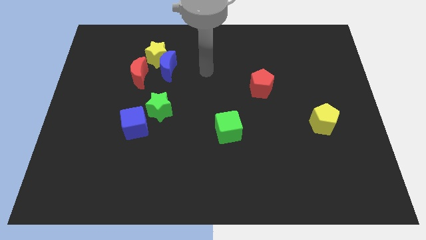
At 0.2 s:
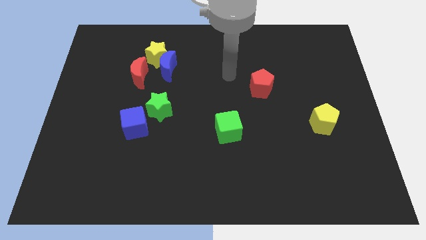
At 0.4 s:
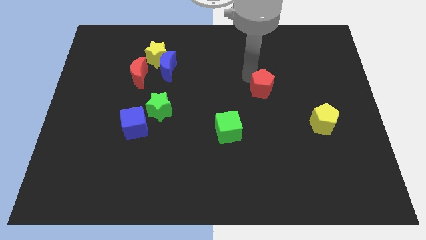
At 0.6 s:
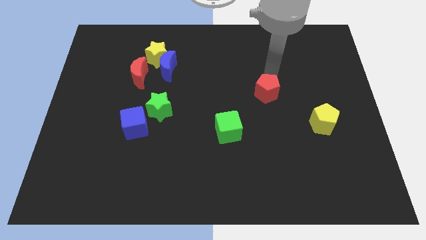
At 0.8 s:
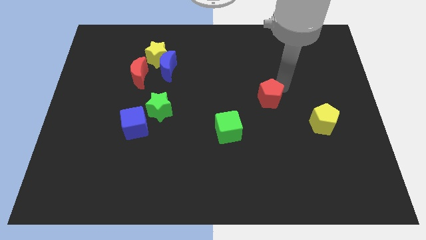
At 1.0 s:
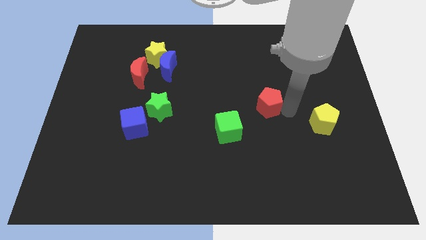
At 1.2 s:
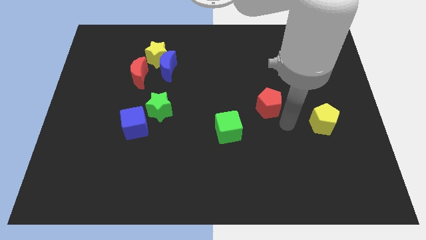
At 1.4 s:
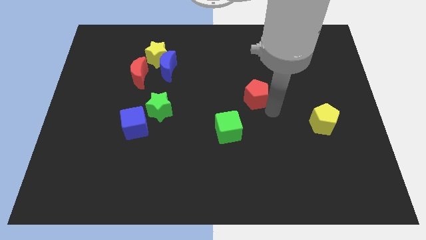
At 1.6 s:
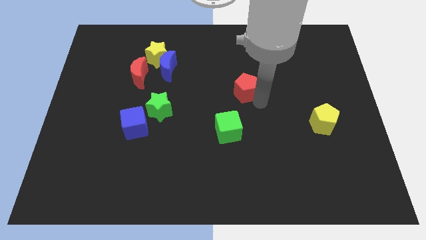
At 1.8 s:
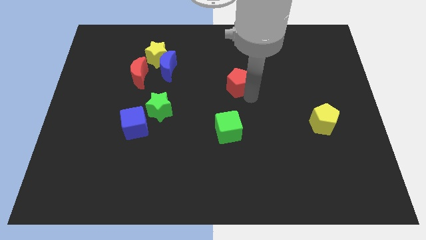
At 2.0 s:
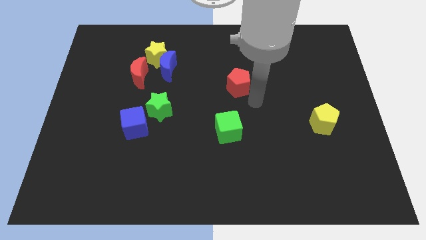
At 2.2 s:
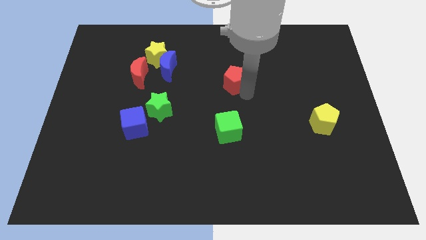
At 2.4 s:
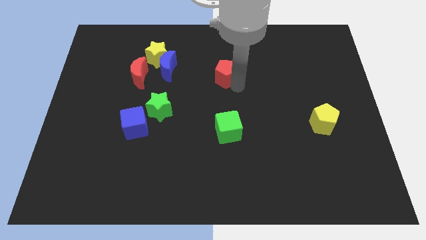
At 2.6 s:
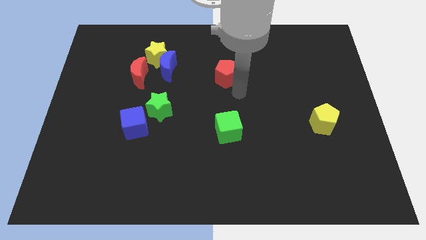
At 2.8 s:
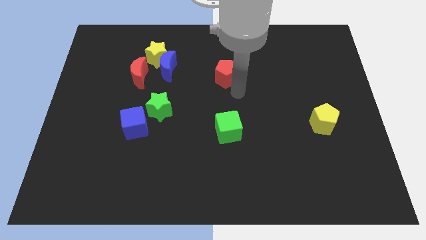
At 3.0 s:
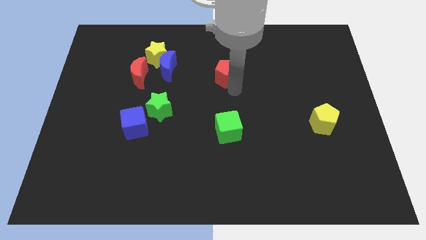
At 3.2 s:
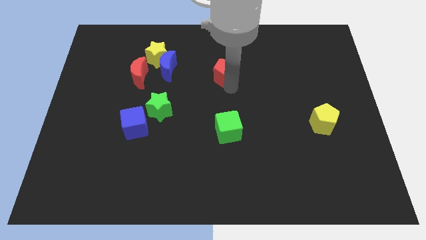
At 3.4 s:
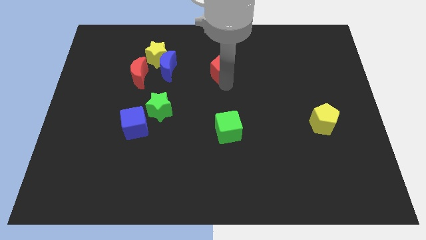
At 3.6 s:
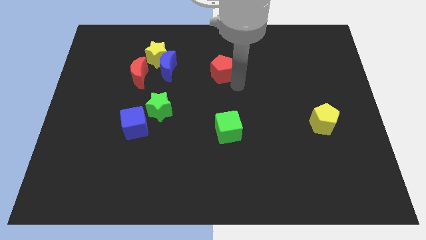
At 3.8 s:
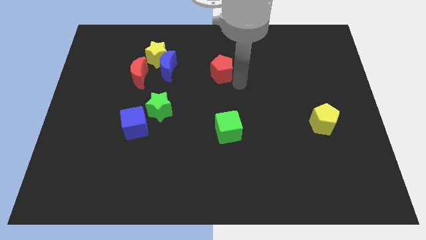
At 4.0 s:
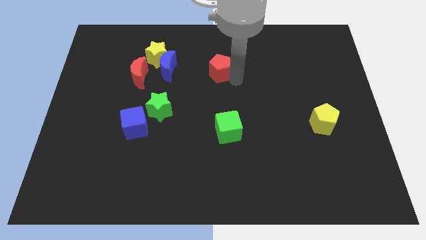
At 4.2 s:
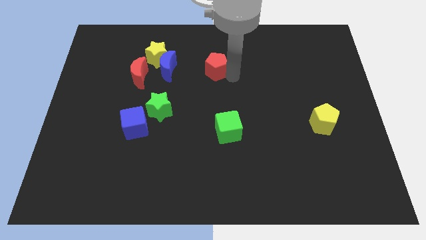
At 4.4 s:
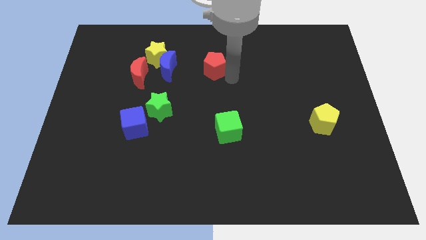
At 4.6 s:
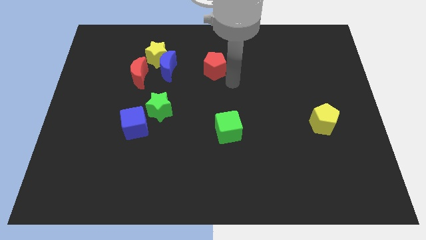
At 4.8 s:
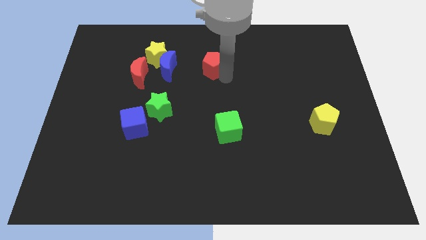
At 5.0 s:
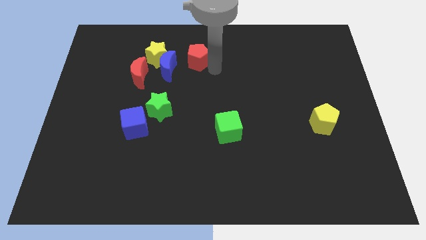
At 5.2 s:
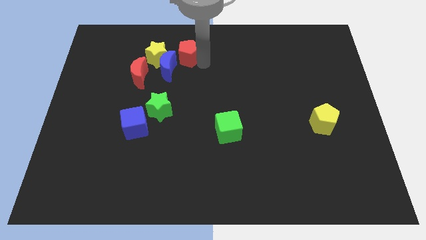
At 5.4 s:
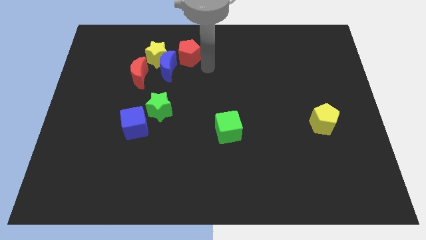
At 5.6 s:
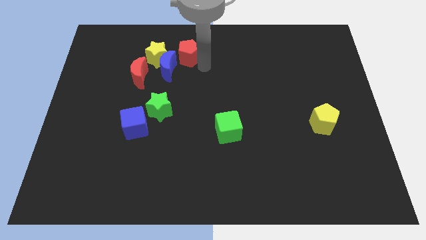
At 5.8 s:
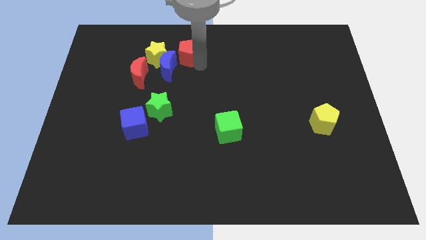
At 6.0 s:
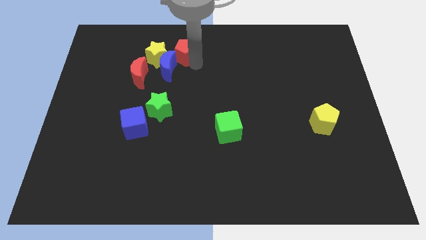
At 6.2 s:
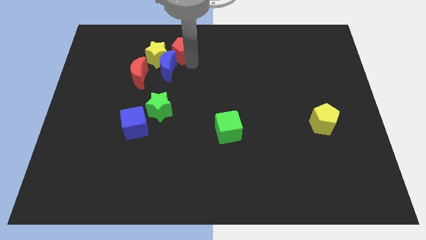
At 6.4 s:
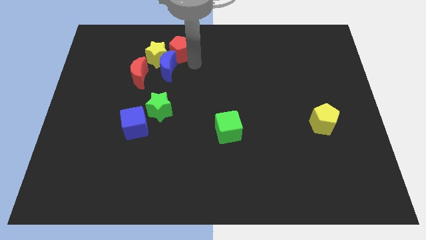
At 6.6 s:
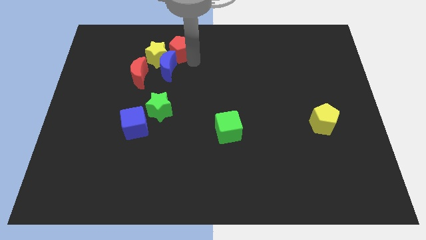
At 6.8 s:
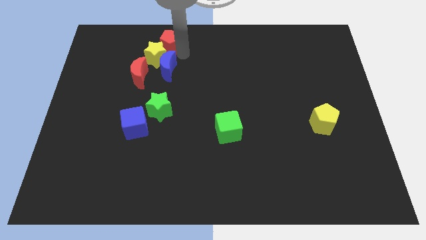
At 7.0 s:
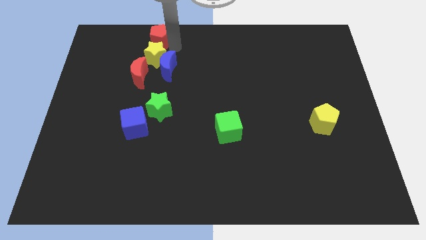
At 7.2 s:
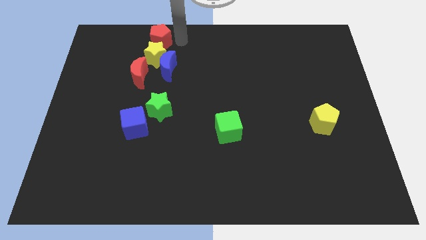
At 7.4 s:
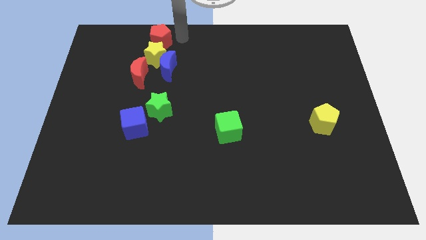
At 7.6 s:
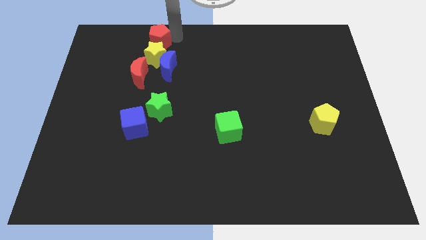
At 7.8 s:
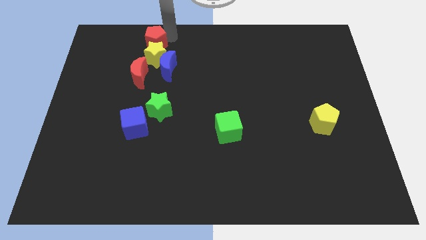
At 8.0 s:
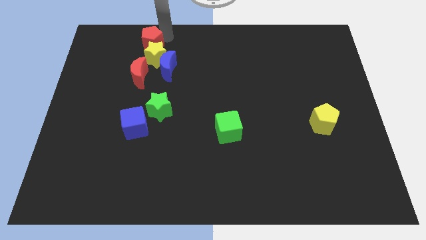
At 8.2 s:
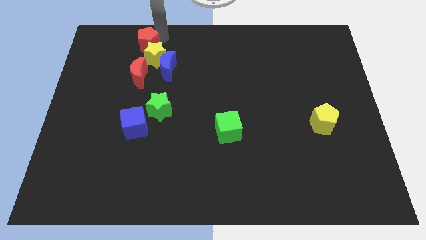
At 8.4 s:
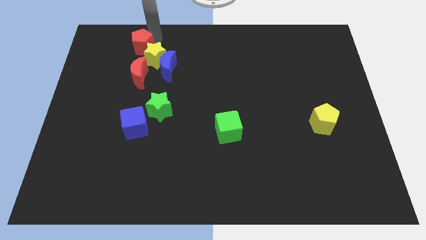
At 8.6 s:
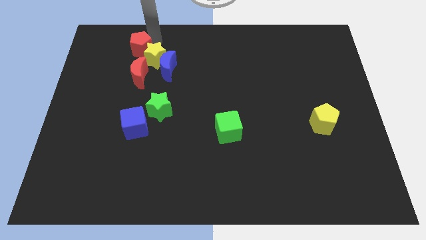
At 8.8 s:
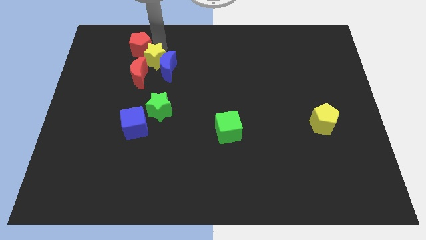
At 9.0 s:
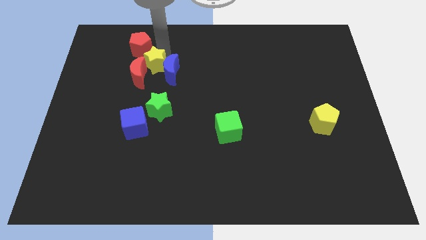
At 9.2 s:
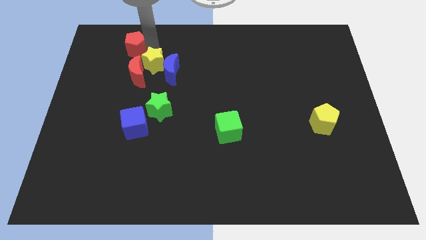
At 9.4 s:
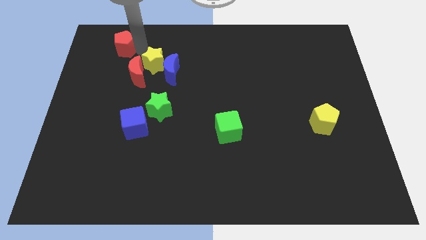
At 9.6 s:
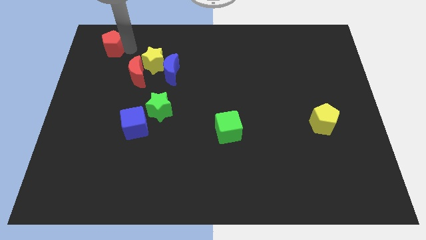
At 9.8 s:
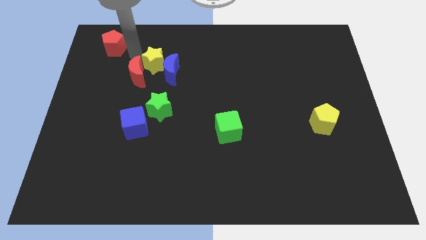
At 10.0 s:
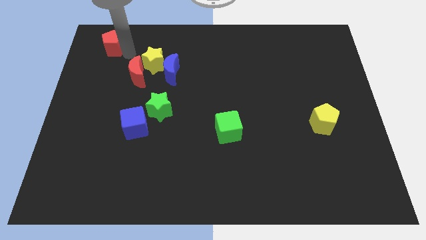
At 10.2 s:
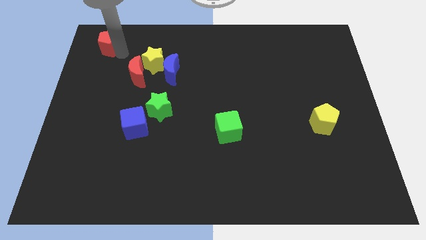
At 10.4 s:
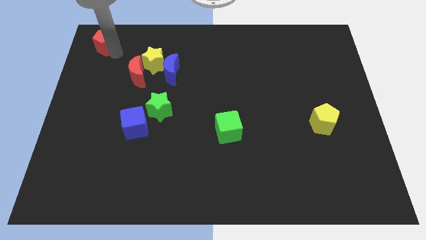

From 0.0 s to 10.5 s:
put the red pentagon to the upper left corner

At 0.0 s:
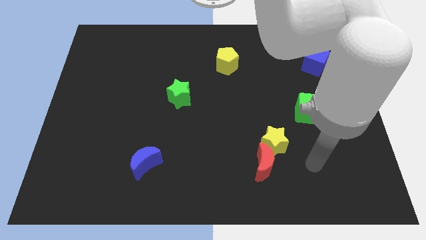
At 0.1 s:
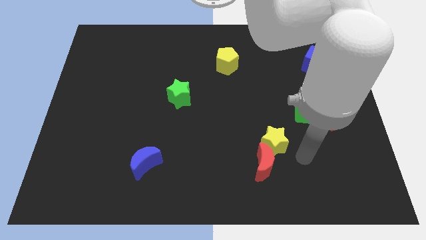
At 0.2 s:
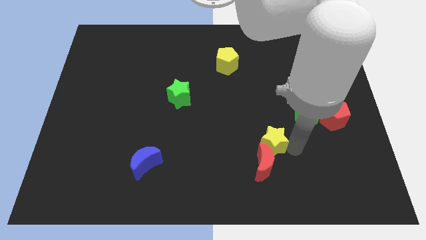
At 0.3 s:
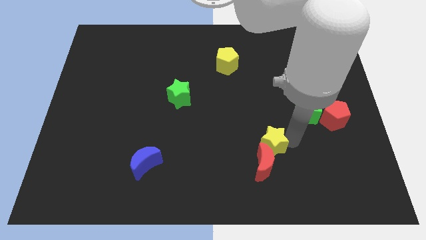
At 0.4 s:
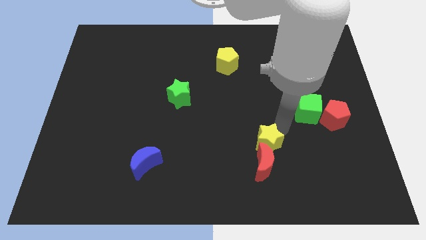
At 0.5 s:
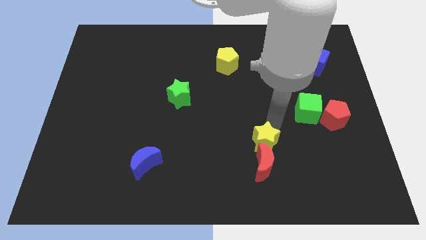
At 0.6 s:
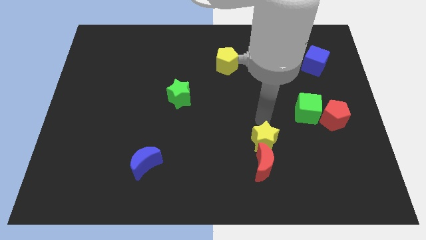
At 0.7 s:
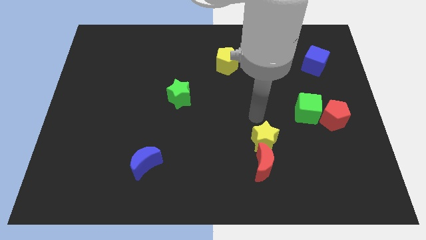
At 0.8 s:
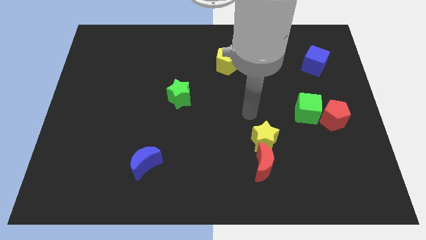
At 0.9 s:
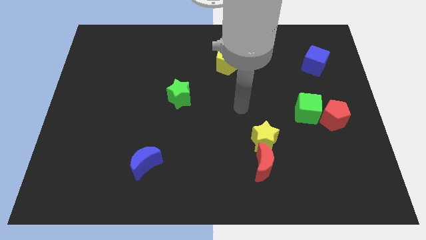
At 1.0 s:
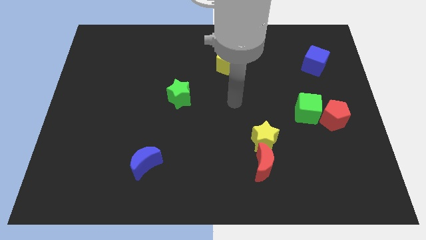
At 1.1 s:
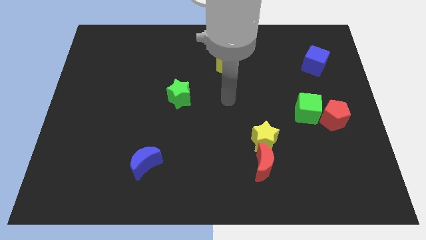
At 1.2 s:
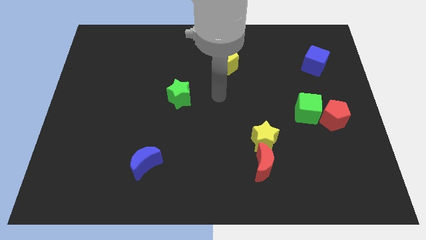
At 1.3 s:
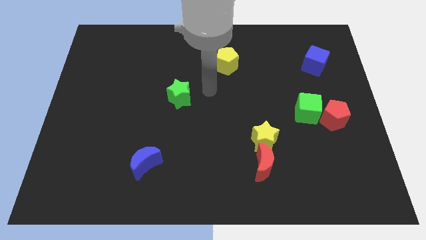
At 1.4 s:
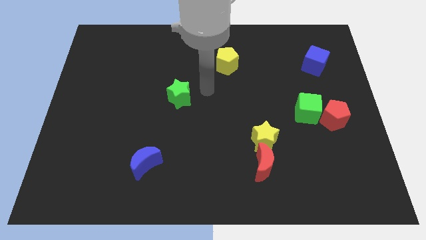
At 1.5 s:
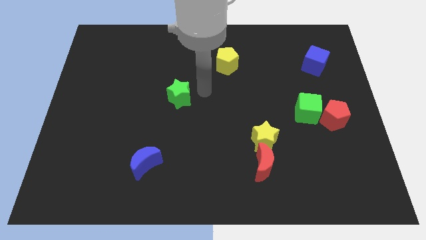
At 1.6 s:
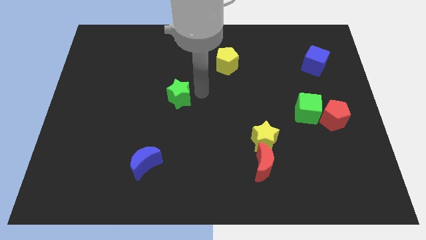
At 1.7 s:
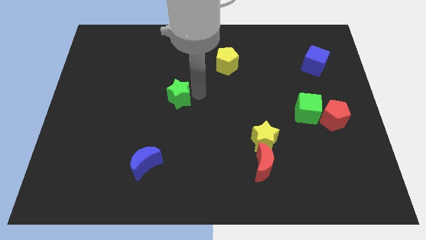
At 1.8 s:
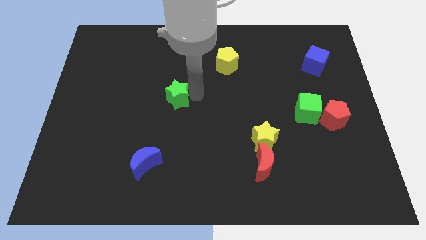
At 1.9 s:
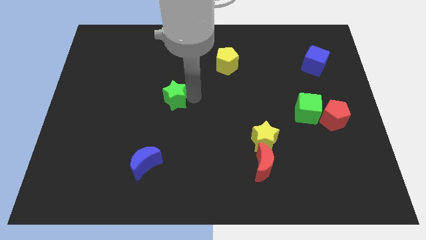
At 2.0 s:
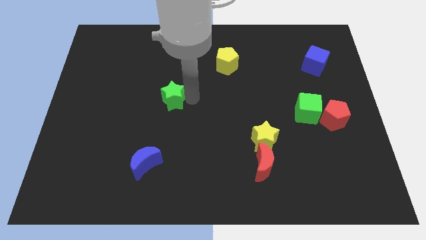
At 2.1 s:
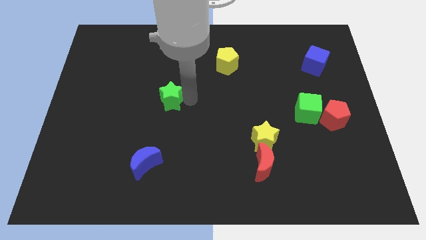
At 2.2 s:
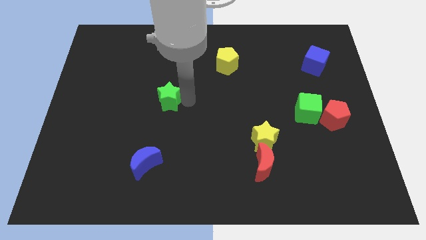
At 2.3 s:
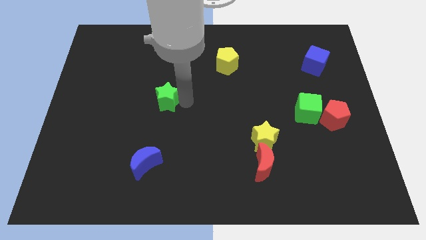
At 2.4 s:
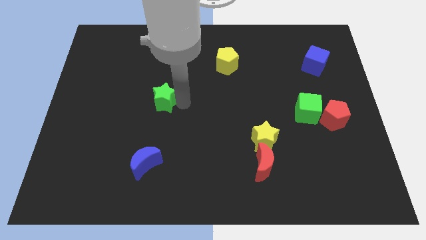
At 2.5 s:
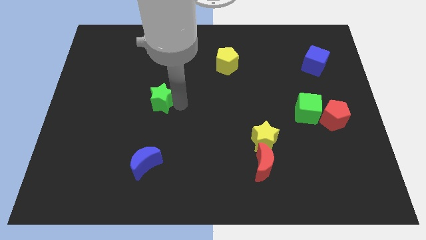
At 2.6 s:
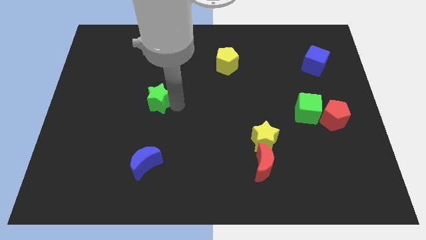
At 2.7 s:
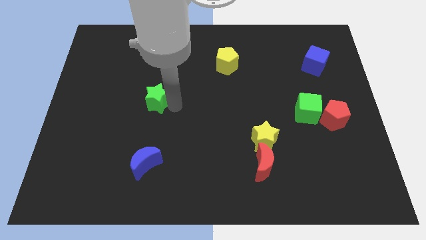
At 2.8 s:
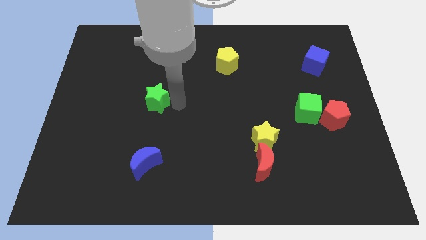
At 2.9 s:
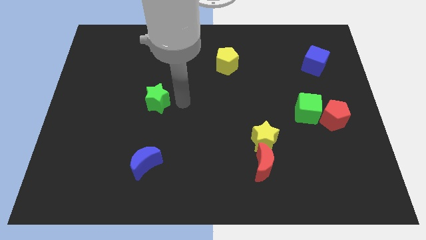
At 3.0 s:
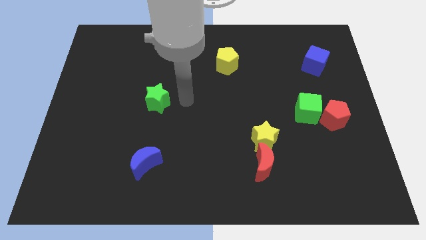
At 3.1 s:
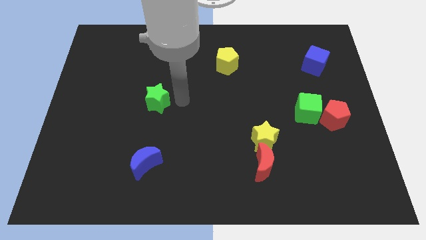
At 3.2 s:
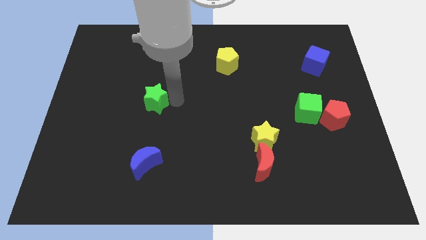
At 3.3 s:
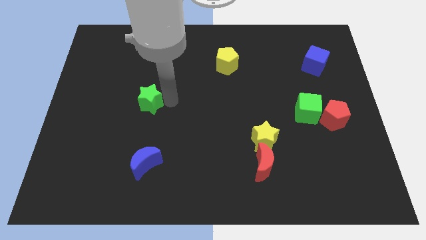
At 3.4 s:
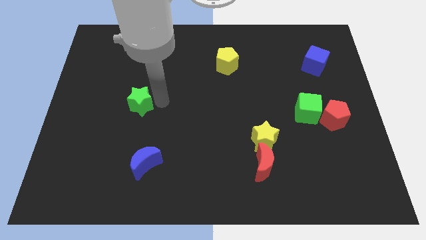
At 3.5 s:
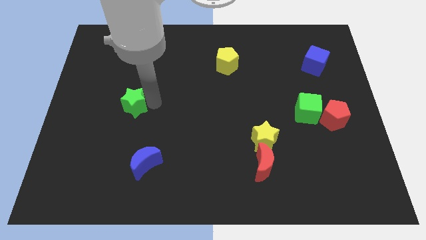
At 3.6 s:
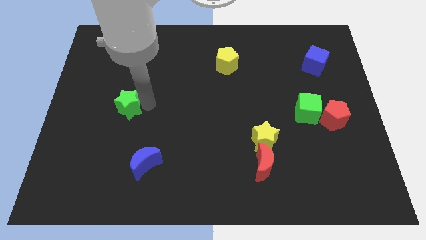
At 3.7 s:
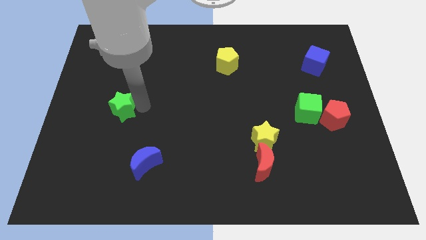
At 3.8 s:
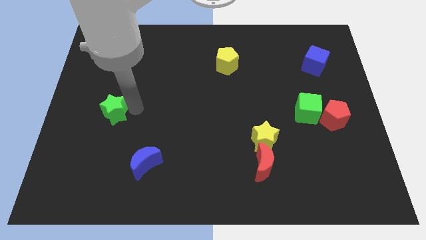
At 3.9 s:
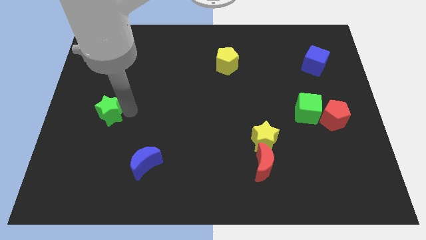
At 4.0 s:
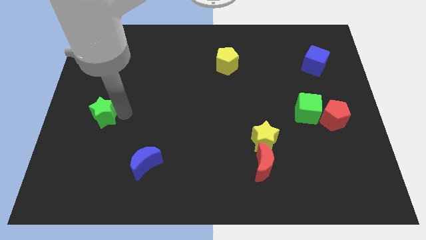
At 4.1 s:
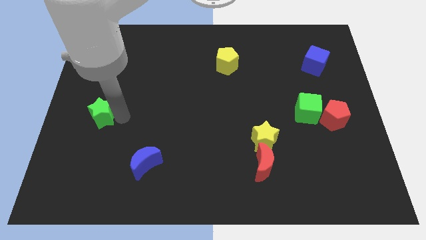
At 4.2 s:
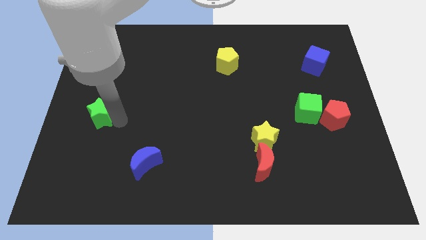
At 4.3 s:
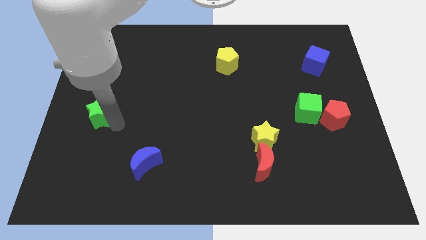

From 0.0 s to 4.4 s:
slide the green star to the left side
